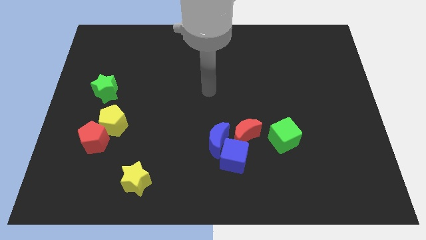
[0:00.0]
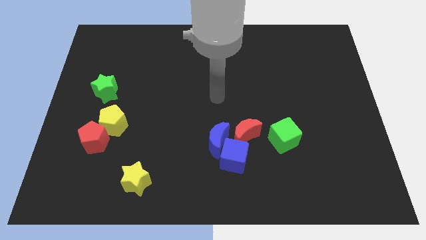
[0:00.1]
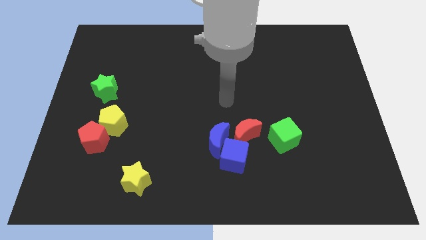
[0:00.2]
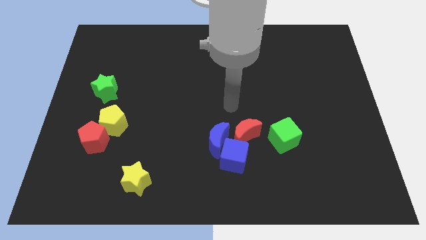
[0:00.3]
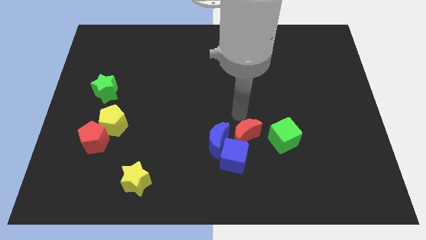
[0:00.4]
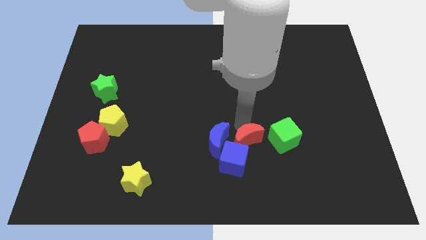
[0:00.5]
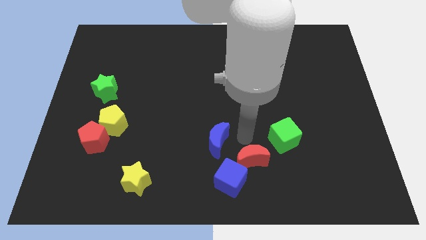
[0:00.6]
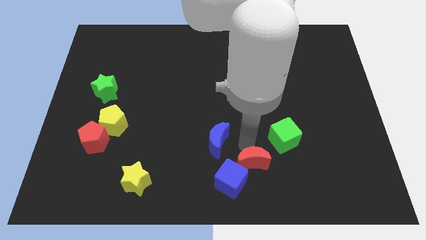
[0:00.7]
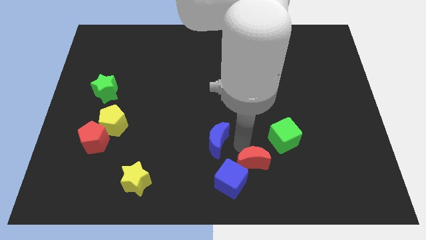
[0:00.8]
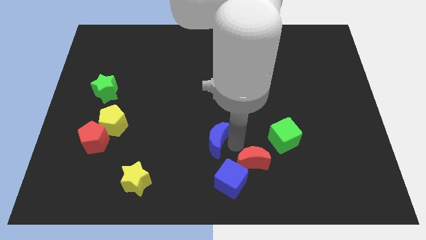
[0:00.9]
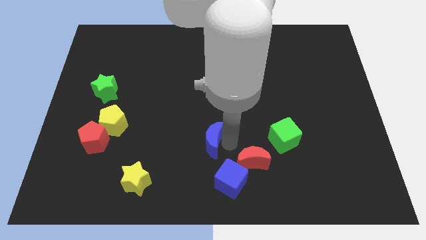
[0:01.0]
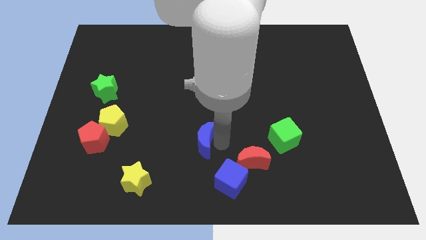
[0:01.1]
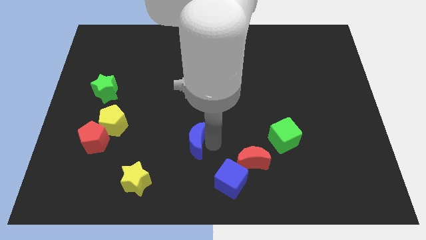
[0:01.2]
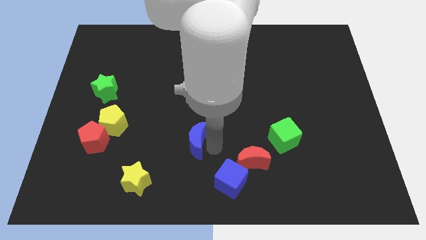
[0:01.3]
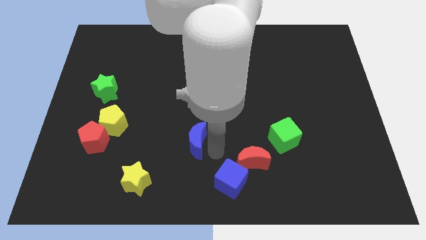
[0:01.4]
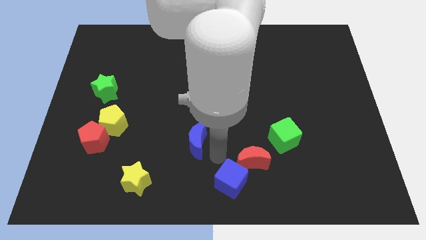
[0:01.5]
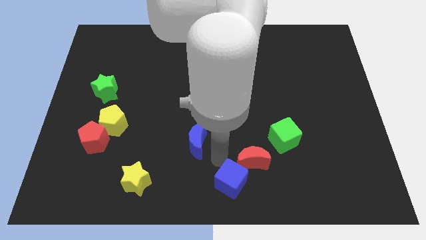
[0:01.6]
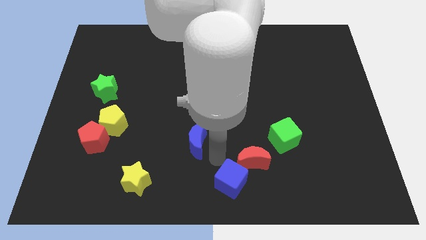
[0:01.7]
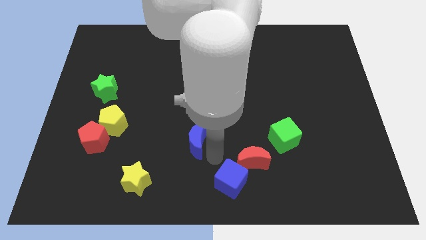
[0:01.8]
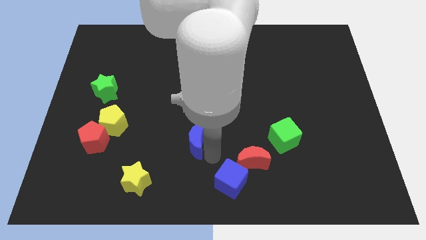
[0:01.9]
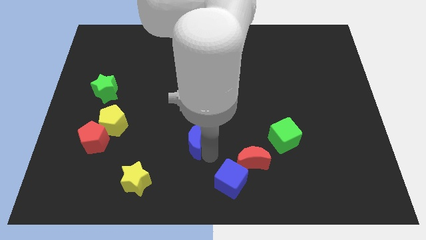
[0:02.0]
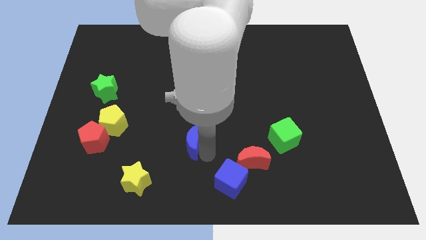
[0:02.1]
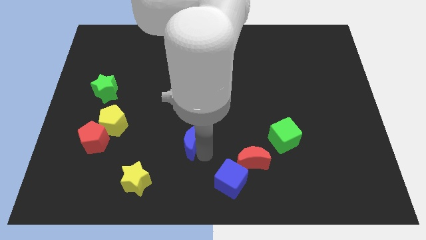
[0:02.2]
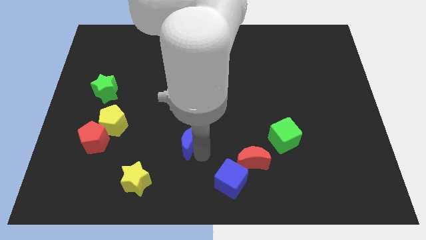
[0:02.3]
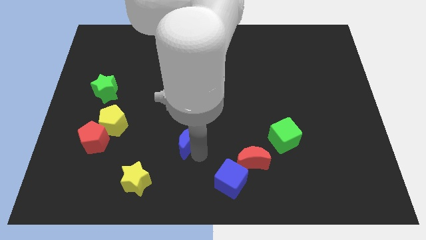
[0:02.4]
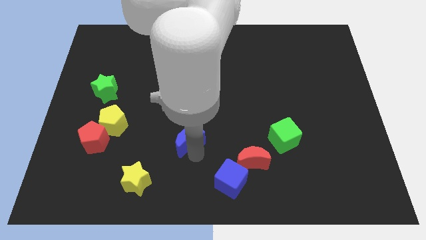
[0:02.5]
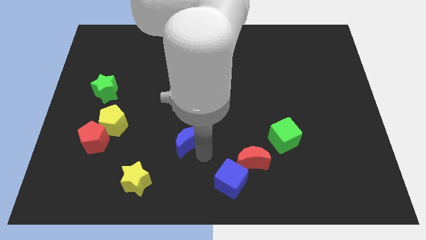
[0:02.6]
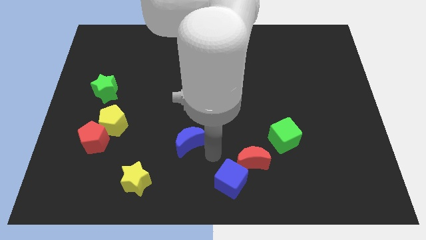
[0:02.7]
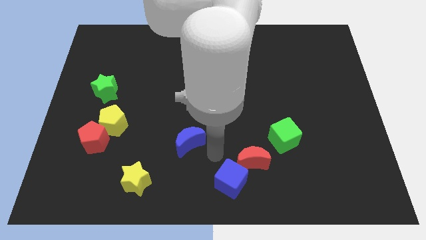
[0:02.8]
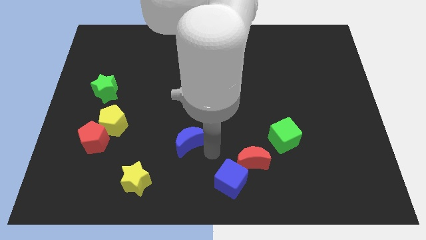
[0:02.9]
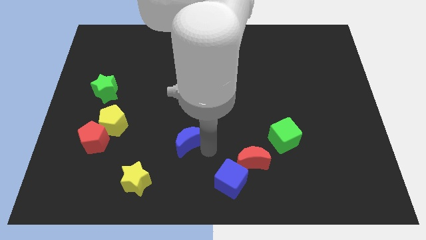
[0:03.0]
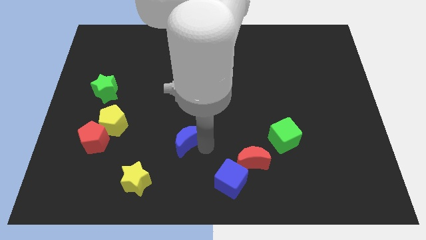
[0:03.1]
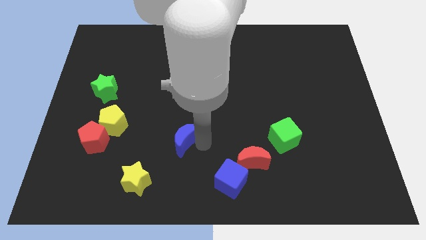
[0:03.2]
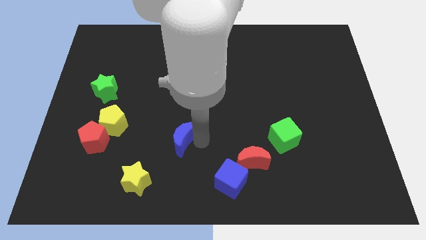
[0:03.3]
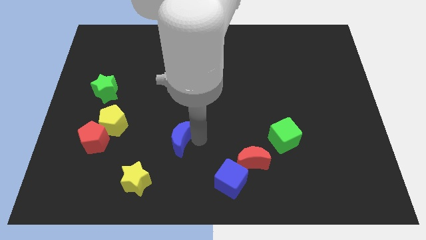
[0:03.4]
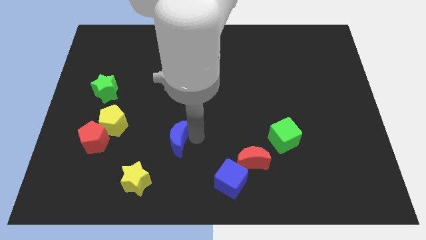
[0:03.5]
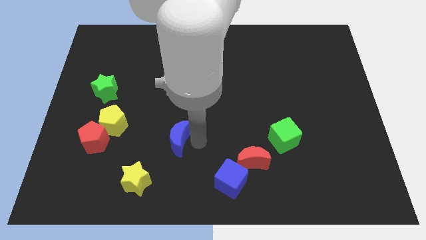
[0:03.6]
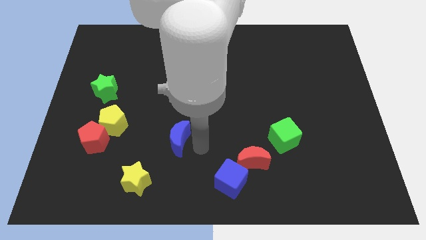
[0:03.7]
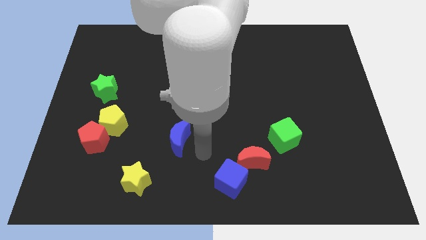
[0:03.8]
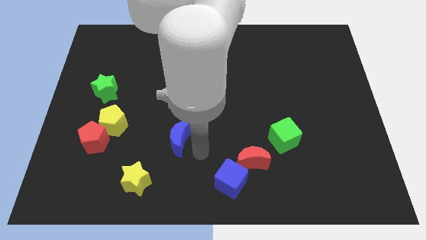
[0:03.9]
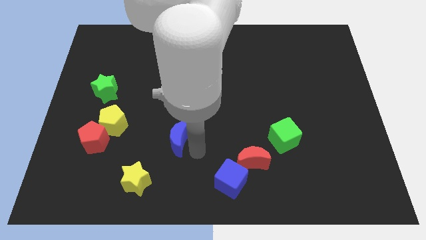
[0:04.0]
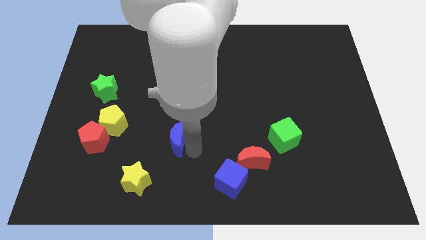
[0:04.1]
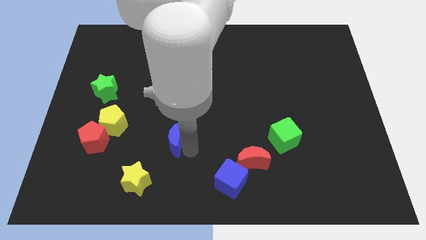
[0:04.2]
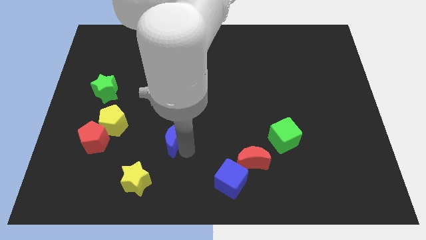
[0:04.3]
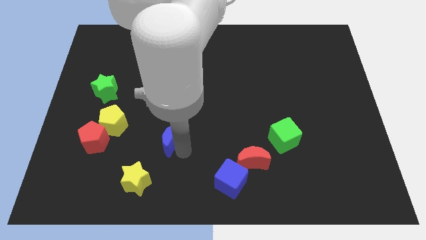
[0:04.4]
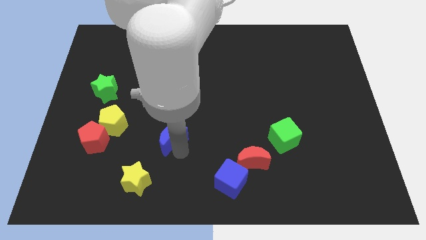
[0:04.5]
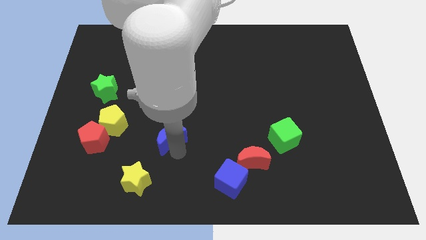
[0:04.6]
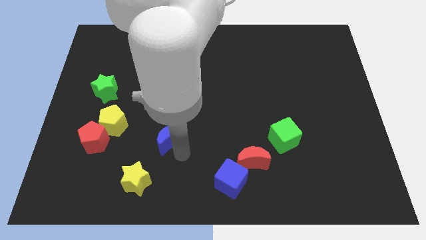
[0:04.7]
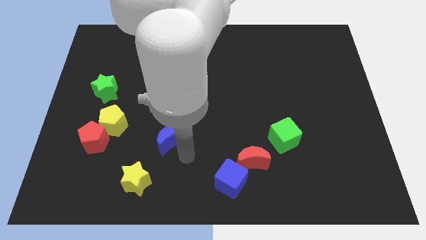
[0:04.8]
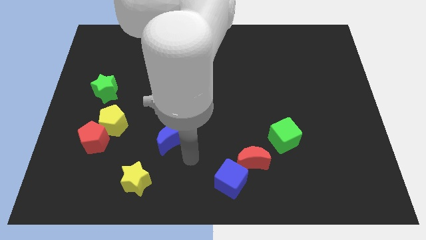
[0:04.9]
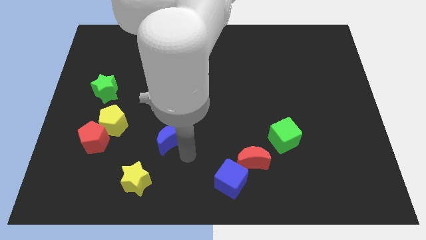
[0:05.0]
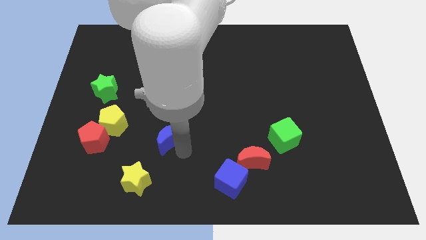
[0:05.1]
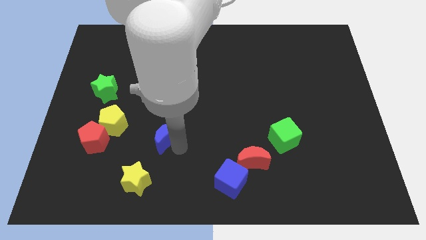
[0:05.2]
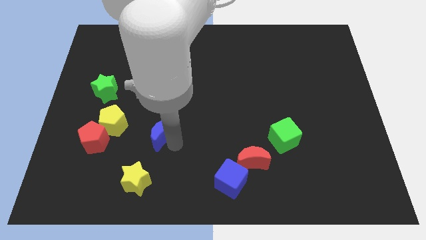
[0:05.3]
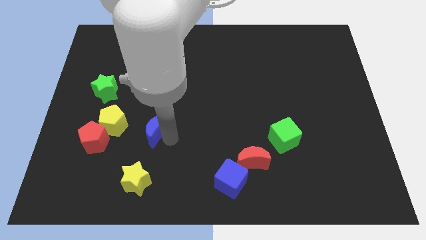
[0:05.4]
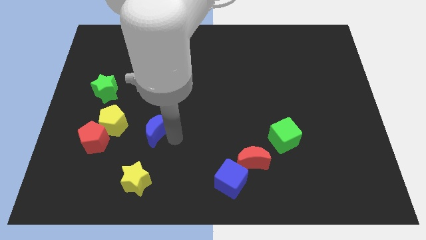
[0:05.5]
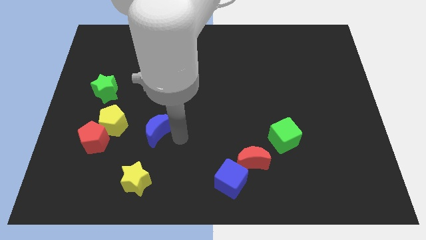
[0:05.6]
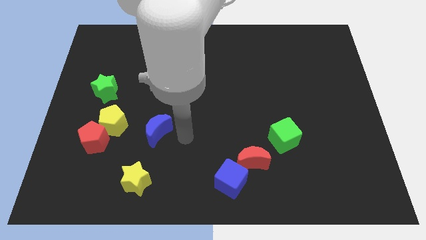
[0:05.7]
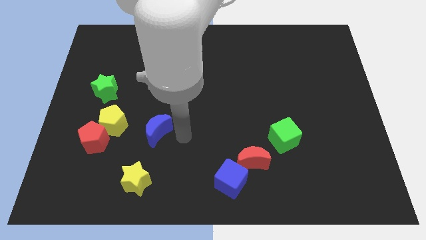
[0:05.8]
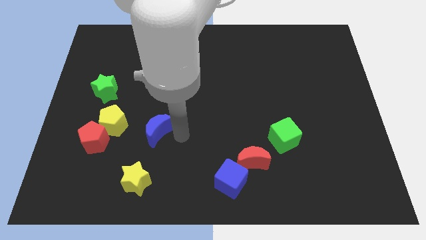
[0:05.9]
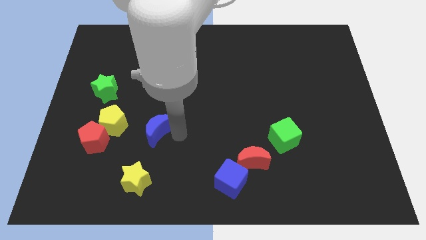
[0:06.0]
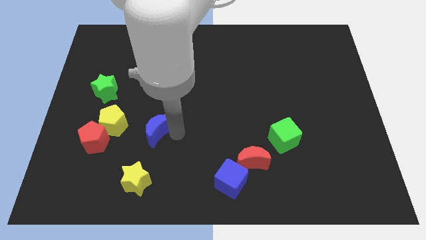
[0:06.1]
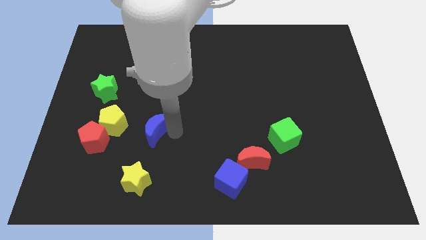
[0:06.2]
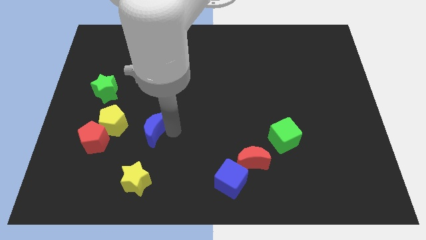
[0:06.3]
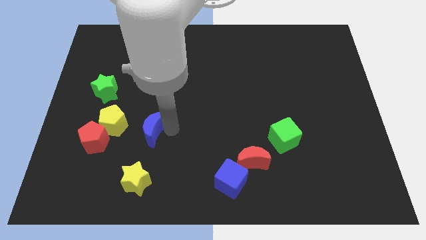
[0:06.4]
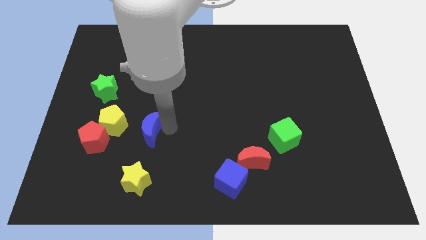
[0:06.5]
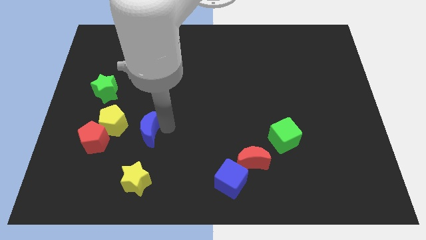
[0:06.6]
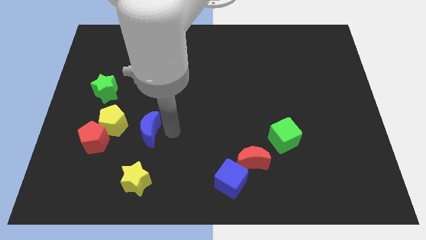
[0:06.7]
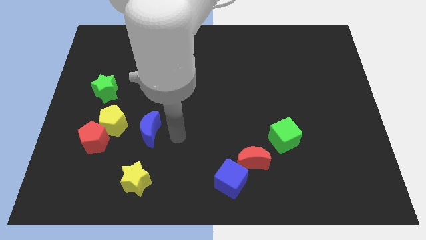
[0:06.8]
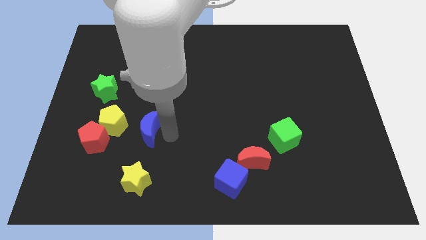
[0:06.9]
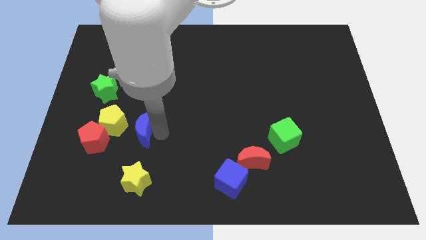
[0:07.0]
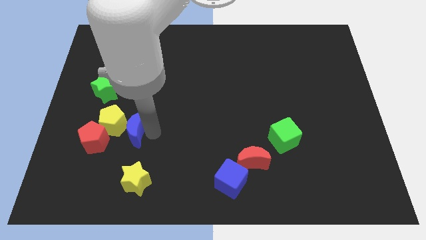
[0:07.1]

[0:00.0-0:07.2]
put the blue moon to the yellow pentagon

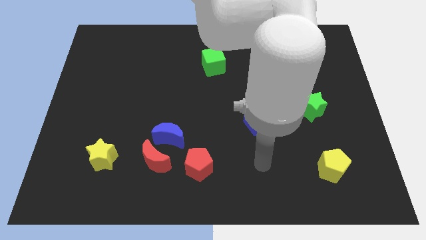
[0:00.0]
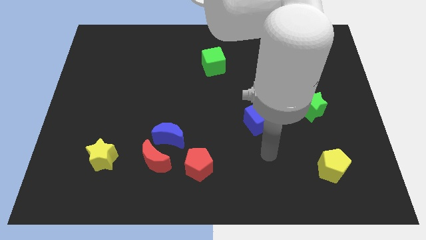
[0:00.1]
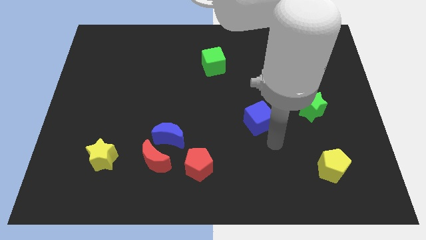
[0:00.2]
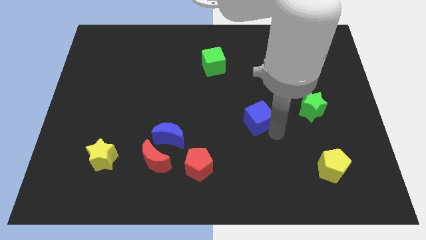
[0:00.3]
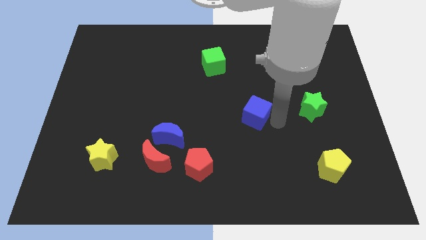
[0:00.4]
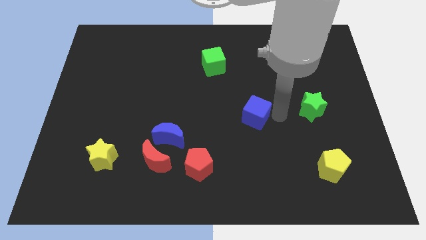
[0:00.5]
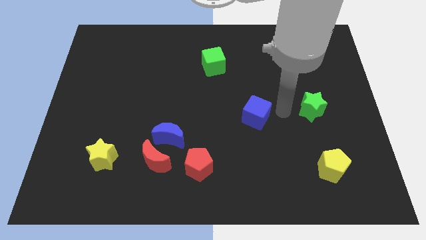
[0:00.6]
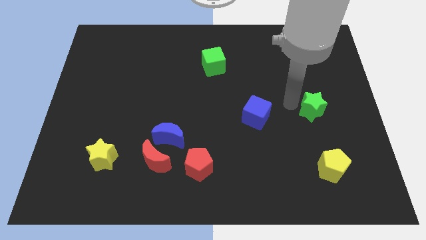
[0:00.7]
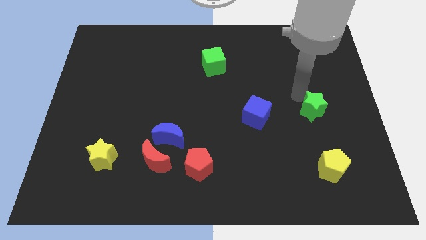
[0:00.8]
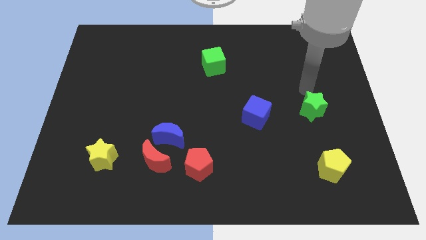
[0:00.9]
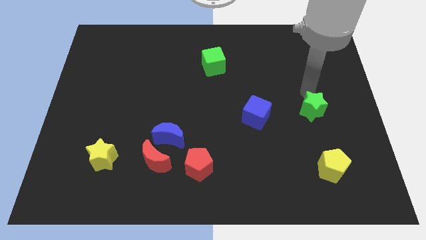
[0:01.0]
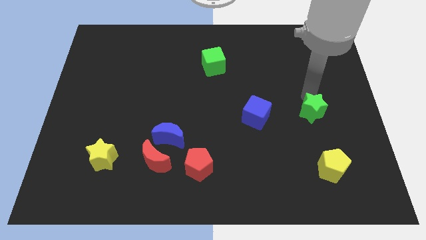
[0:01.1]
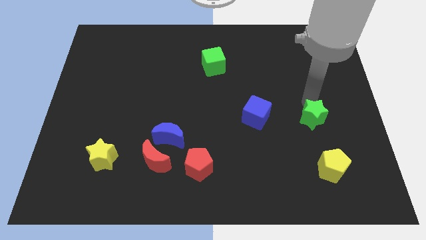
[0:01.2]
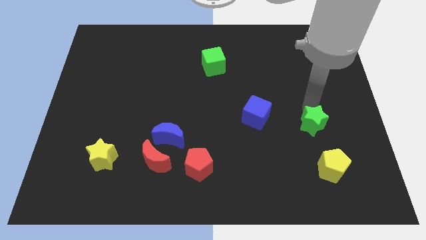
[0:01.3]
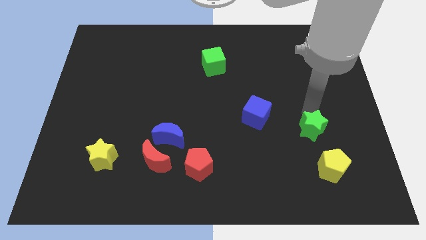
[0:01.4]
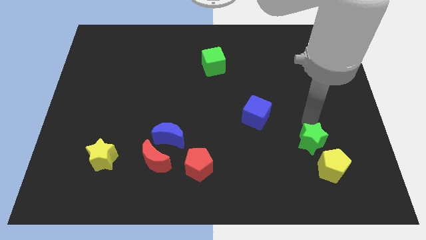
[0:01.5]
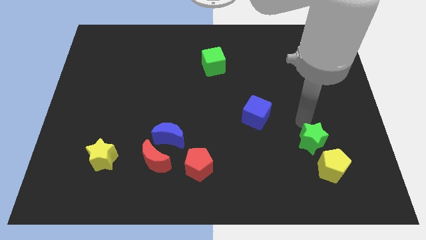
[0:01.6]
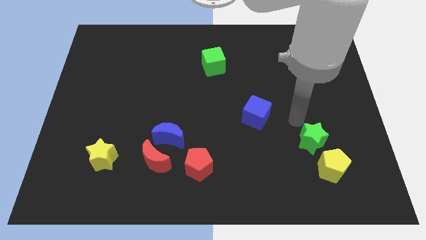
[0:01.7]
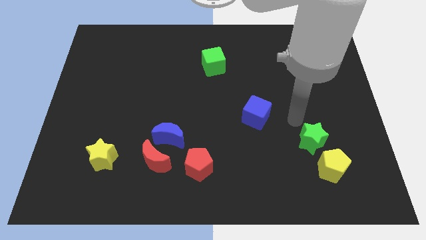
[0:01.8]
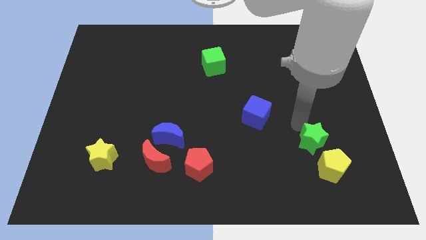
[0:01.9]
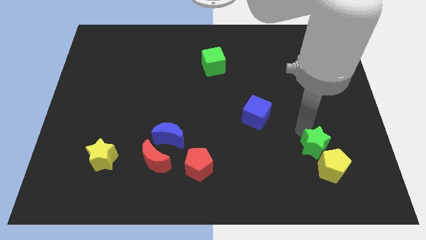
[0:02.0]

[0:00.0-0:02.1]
push the green star next to the yellow pentagon
